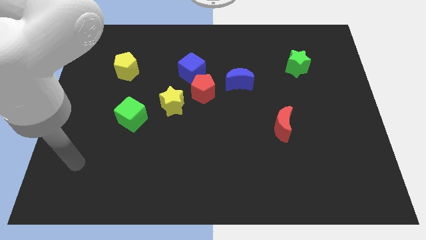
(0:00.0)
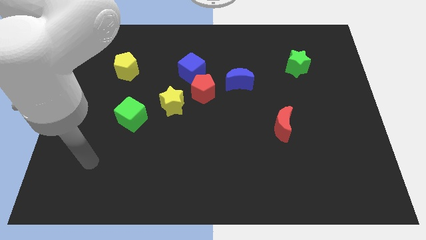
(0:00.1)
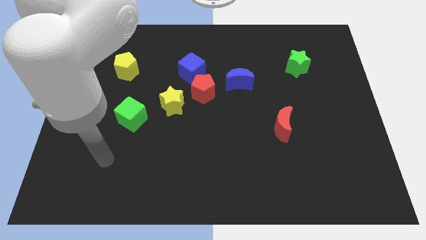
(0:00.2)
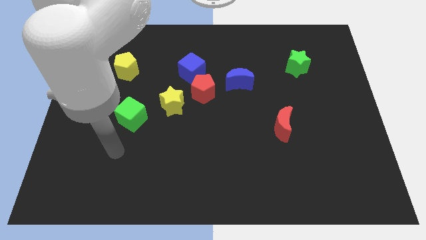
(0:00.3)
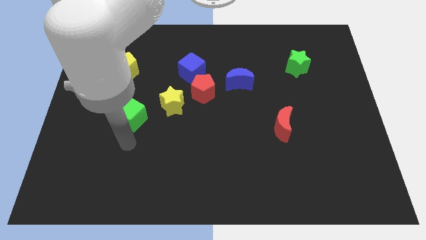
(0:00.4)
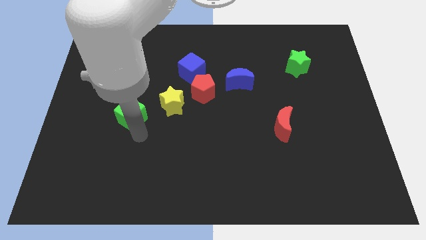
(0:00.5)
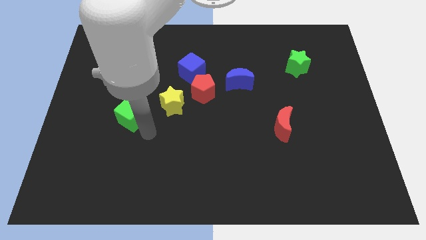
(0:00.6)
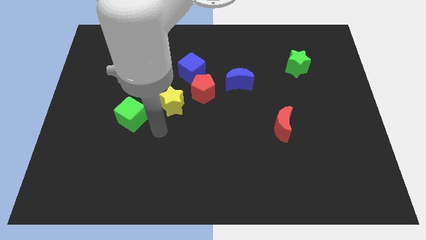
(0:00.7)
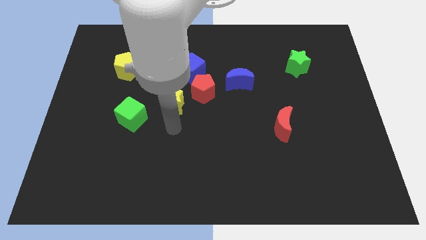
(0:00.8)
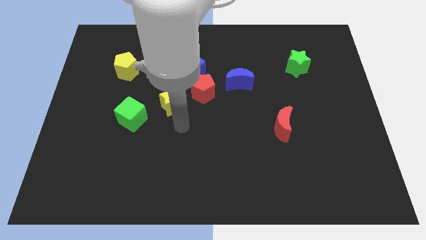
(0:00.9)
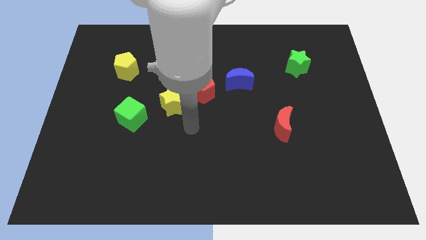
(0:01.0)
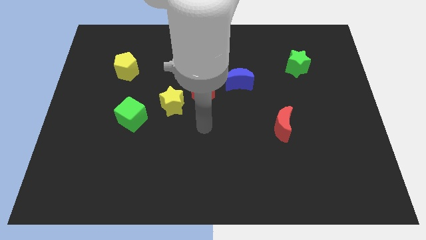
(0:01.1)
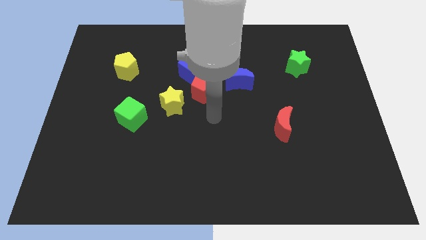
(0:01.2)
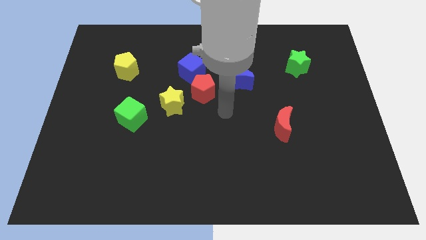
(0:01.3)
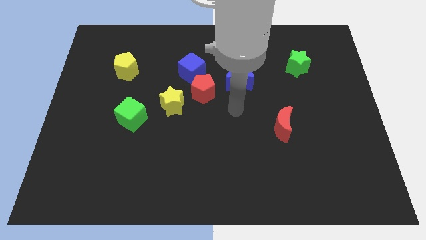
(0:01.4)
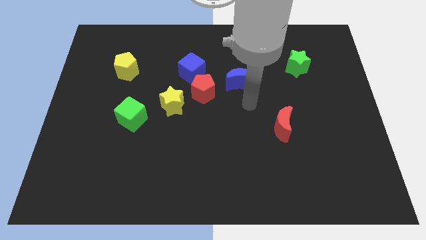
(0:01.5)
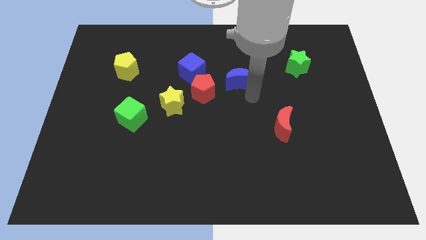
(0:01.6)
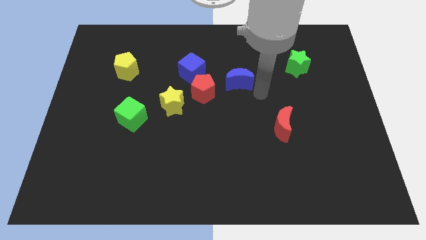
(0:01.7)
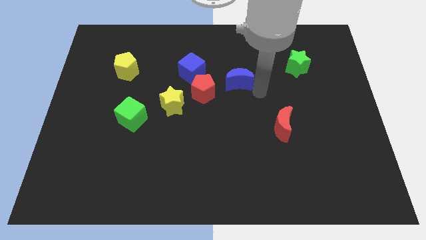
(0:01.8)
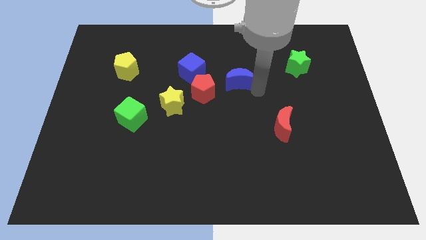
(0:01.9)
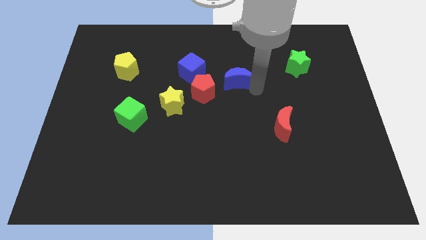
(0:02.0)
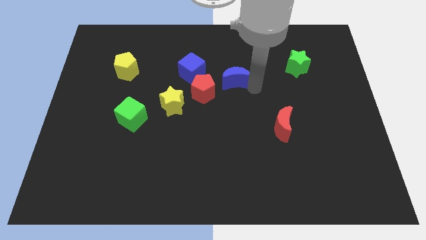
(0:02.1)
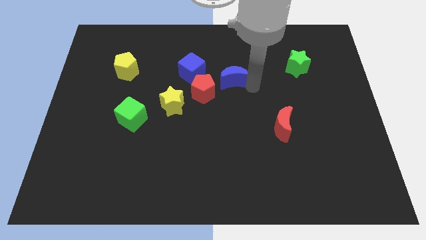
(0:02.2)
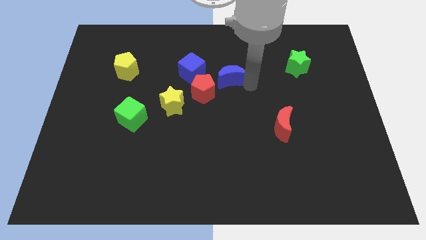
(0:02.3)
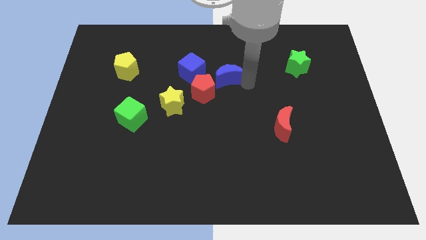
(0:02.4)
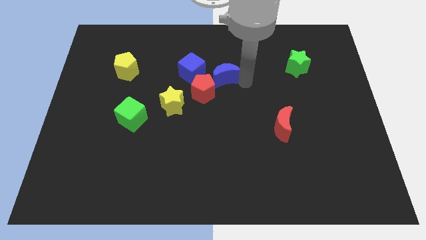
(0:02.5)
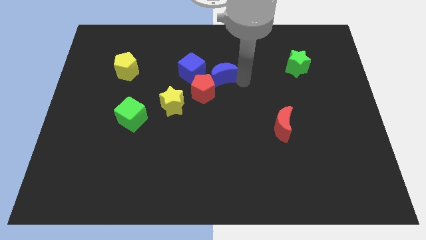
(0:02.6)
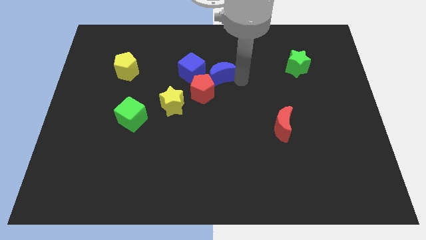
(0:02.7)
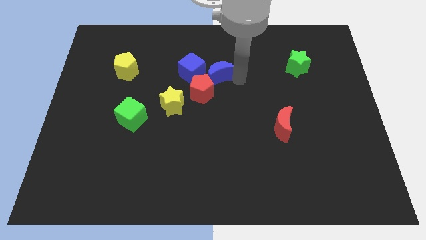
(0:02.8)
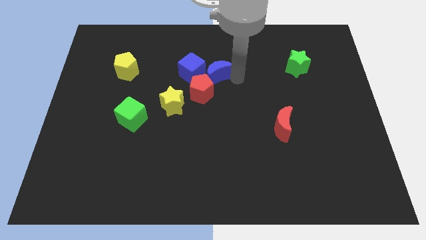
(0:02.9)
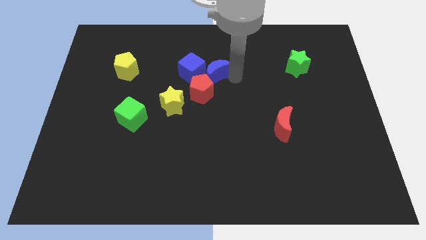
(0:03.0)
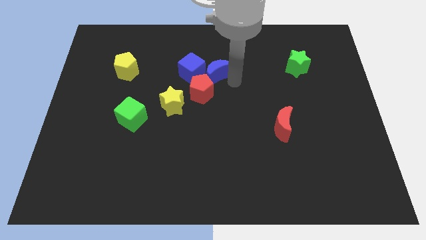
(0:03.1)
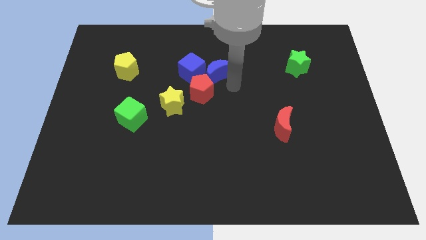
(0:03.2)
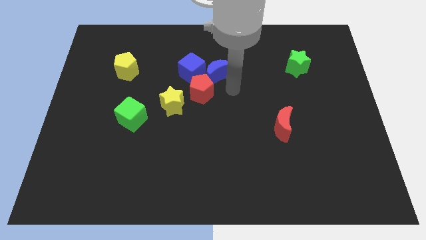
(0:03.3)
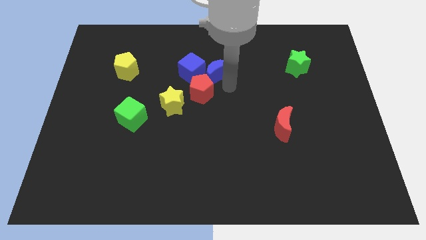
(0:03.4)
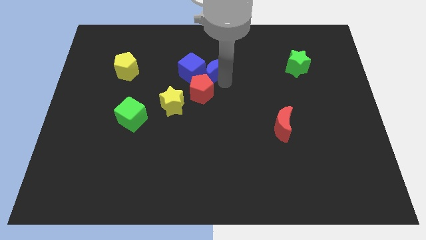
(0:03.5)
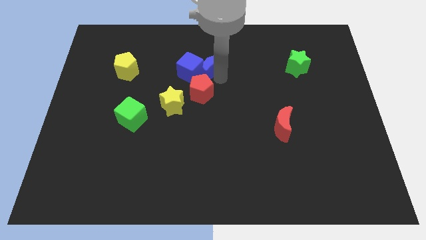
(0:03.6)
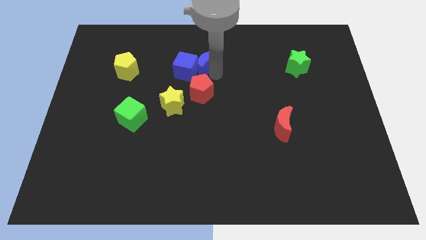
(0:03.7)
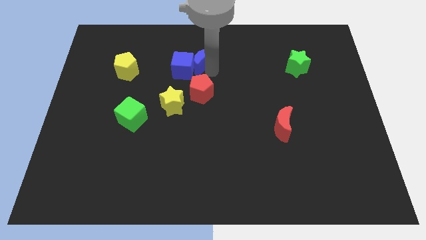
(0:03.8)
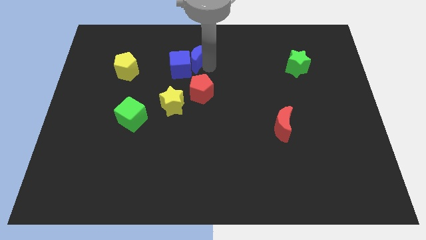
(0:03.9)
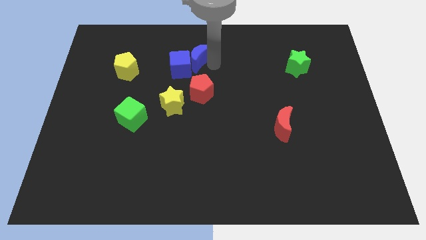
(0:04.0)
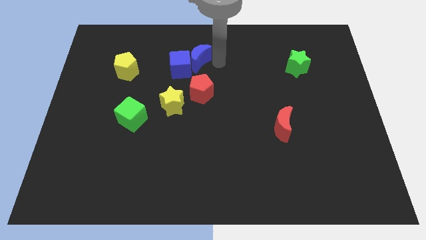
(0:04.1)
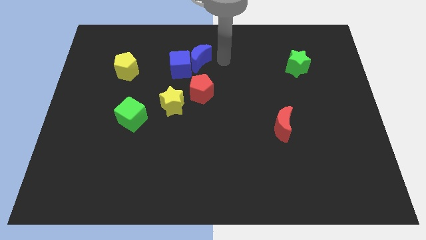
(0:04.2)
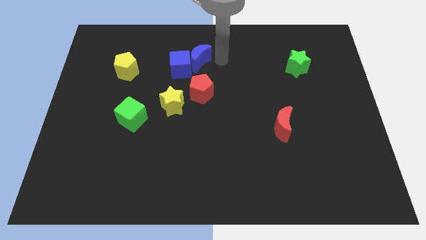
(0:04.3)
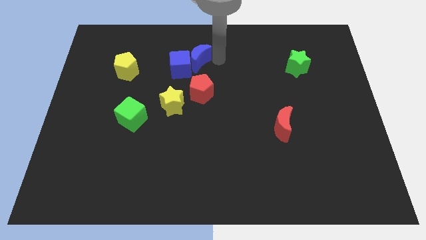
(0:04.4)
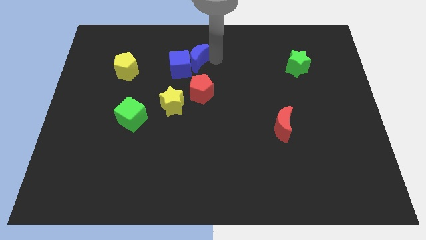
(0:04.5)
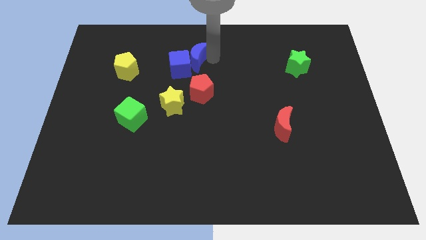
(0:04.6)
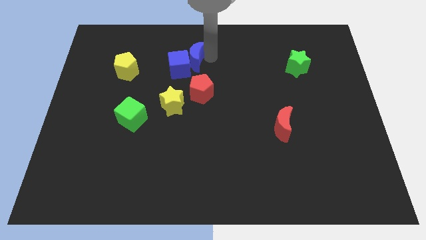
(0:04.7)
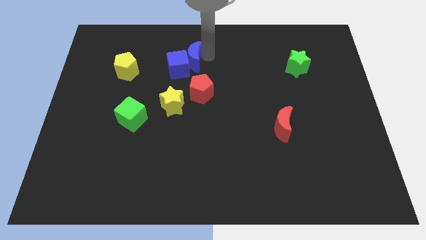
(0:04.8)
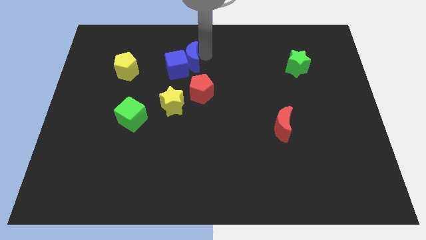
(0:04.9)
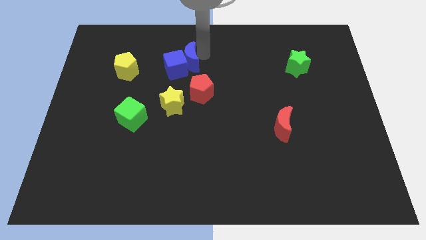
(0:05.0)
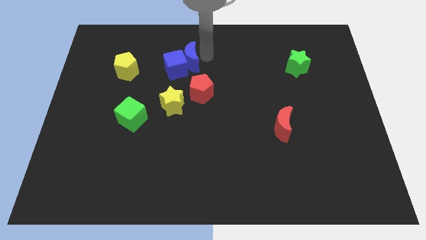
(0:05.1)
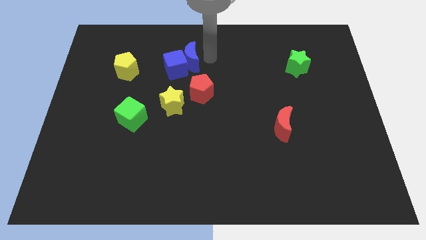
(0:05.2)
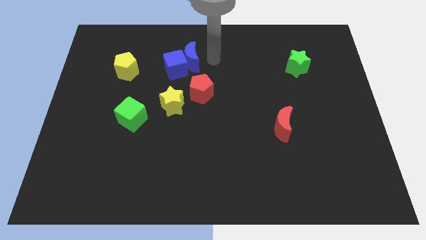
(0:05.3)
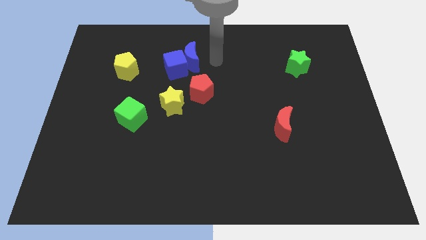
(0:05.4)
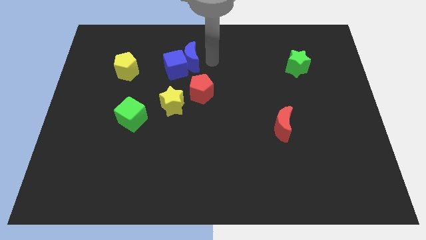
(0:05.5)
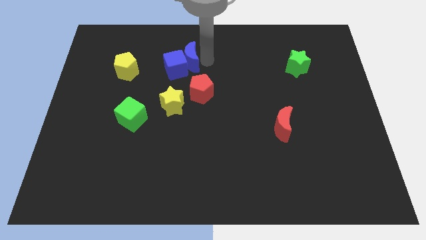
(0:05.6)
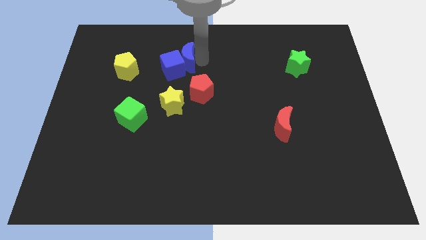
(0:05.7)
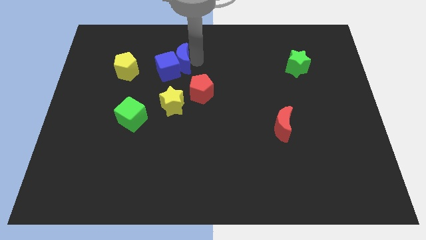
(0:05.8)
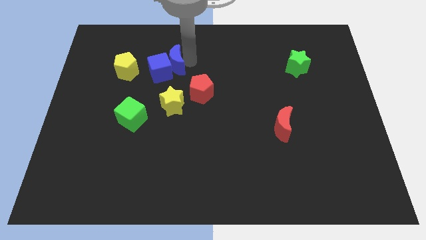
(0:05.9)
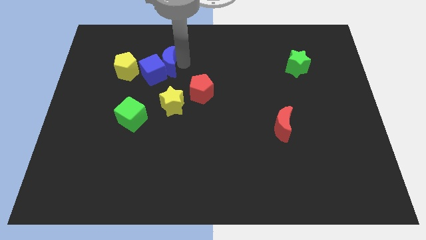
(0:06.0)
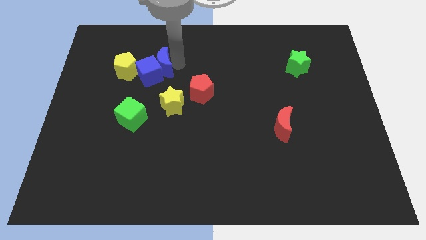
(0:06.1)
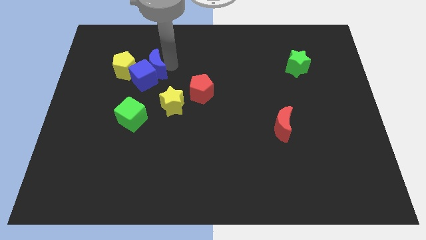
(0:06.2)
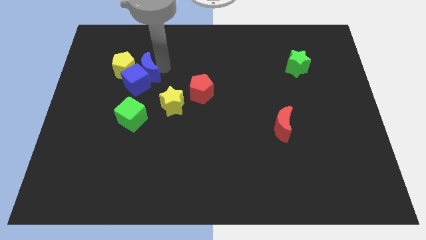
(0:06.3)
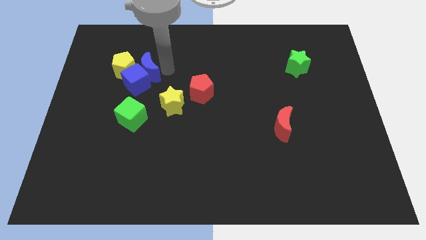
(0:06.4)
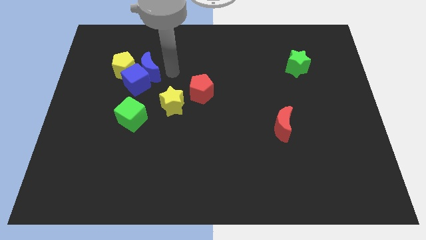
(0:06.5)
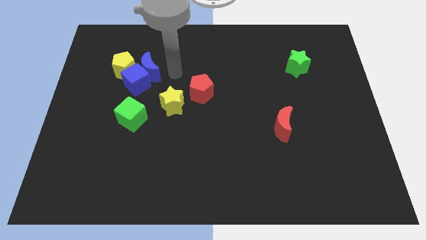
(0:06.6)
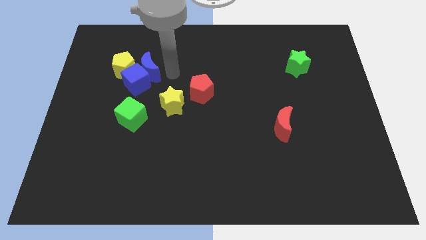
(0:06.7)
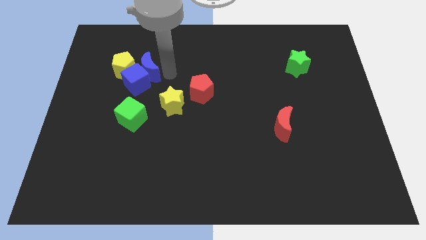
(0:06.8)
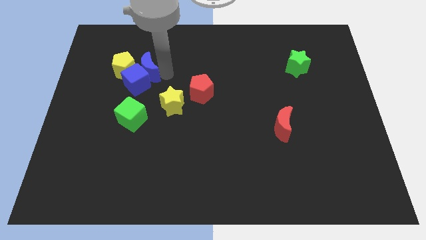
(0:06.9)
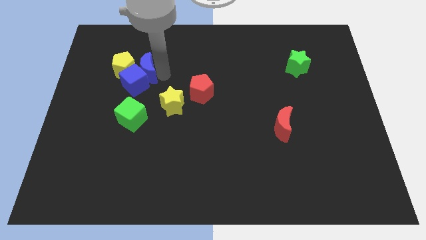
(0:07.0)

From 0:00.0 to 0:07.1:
slide the blue moon next to the yellow pentagon

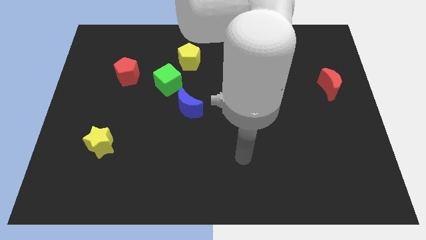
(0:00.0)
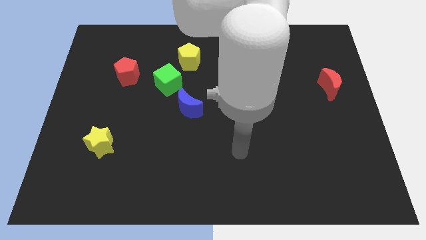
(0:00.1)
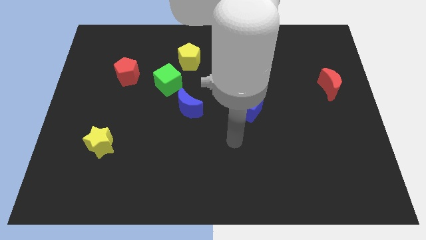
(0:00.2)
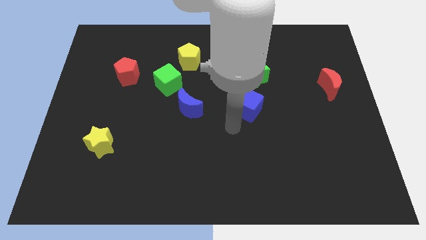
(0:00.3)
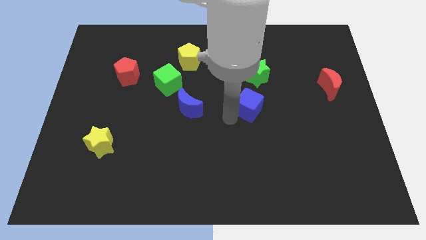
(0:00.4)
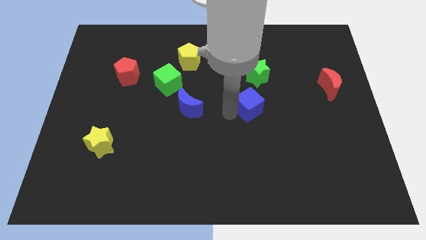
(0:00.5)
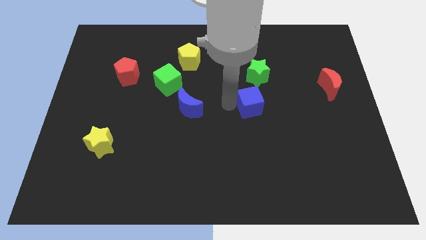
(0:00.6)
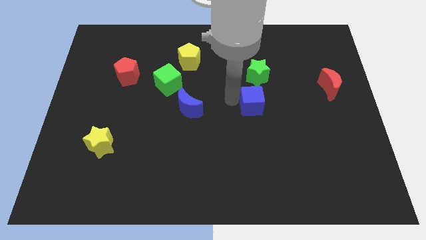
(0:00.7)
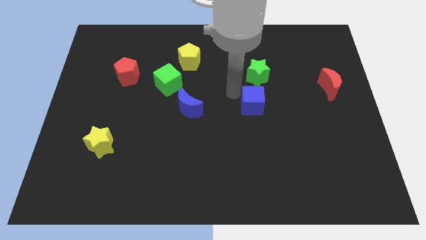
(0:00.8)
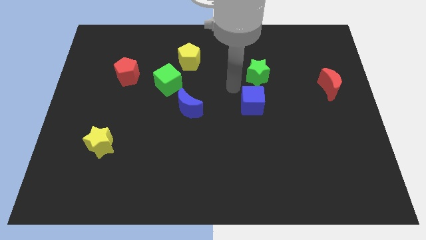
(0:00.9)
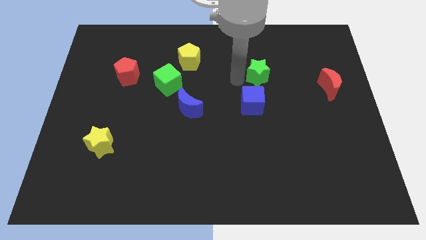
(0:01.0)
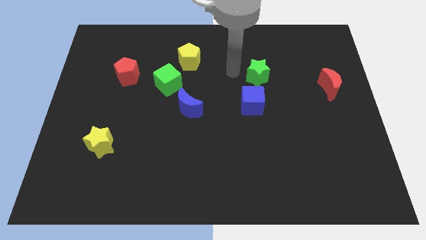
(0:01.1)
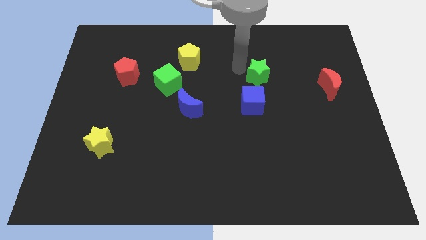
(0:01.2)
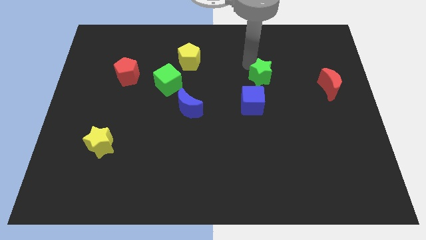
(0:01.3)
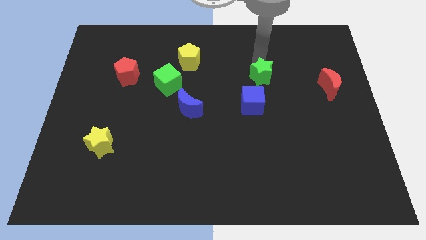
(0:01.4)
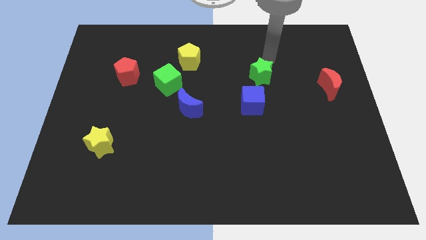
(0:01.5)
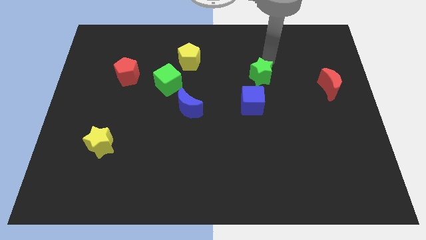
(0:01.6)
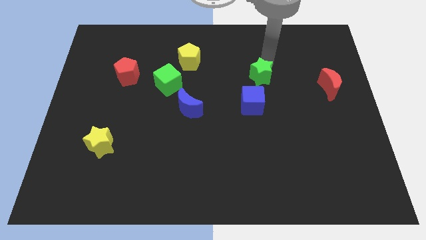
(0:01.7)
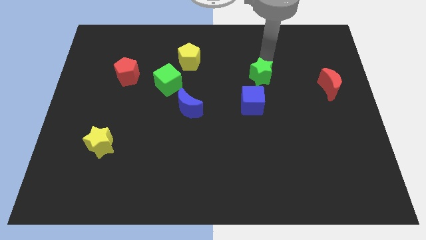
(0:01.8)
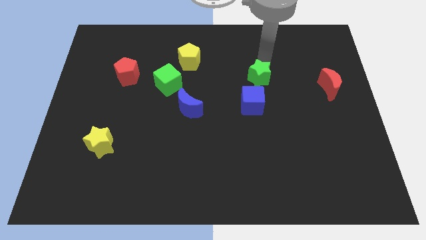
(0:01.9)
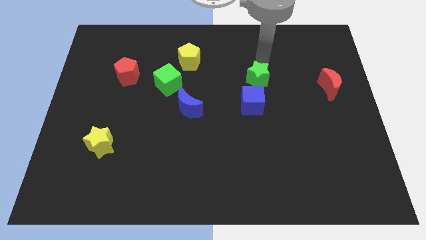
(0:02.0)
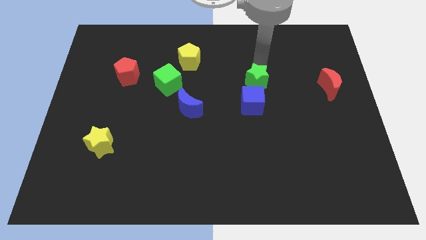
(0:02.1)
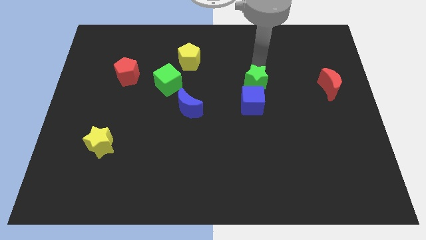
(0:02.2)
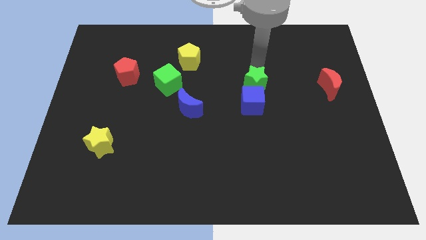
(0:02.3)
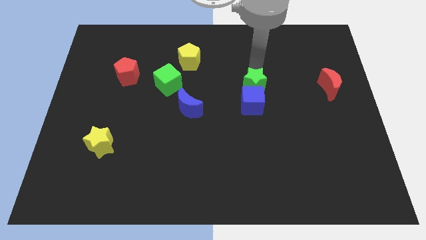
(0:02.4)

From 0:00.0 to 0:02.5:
slide the green star to the blue cube
